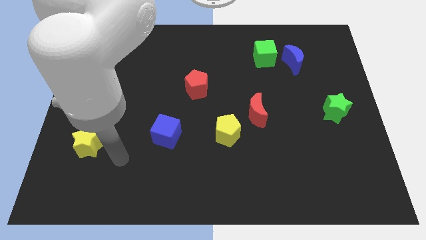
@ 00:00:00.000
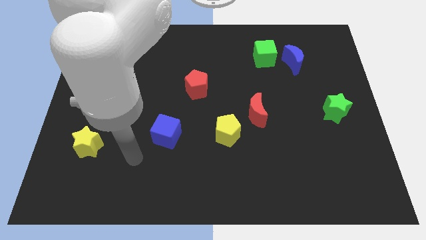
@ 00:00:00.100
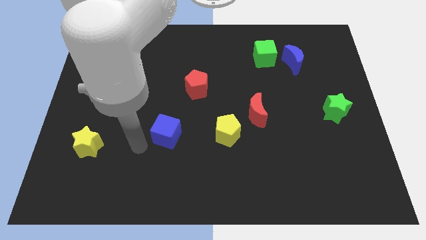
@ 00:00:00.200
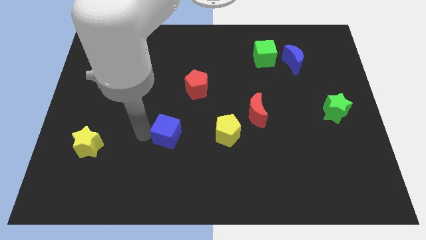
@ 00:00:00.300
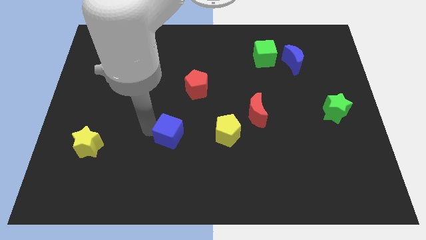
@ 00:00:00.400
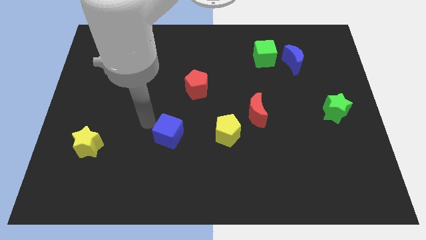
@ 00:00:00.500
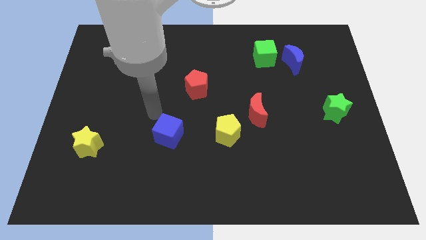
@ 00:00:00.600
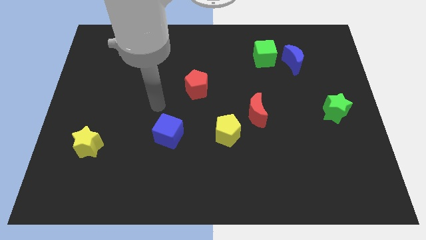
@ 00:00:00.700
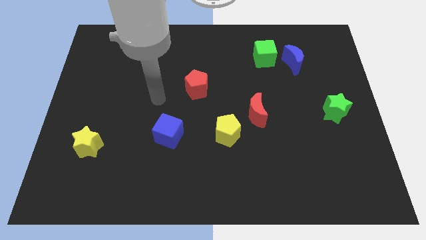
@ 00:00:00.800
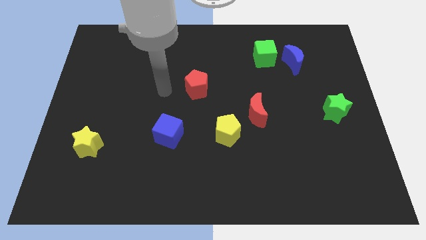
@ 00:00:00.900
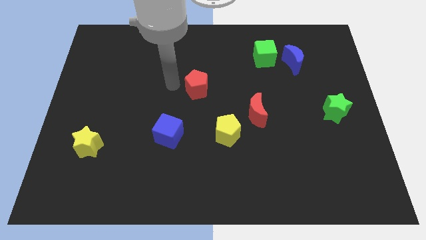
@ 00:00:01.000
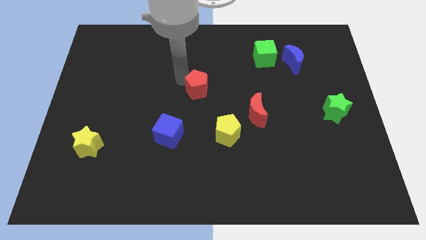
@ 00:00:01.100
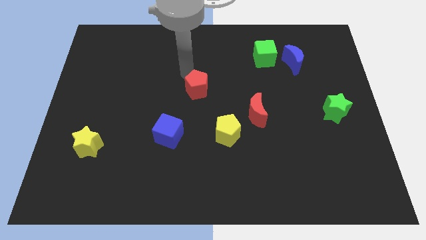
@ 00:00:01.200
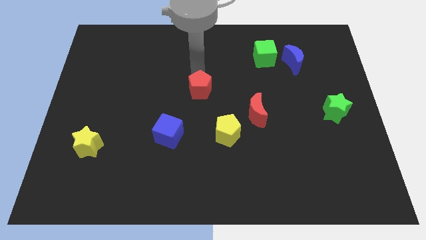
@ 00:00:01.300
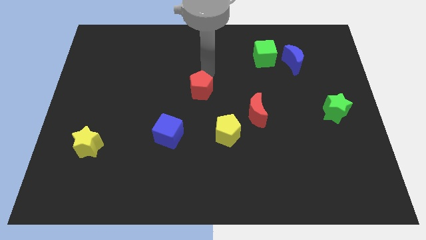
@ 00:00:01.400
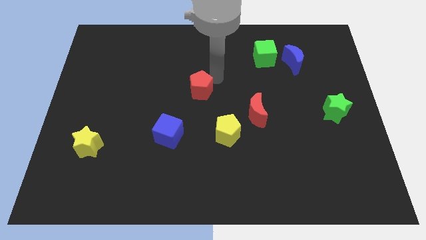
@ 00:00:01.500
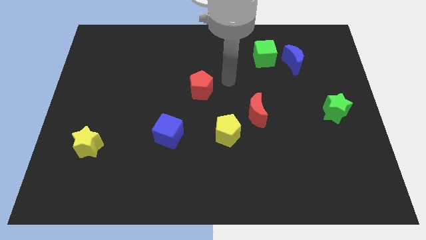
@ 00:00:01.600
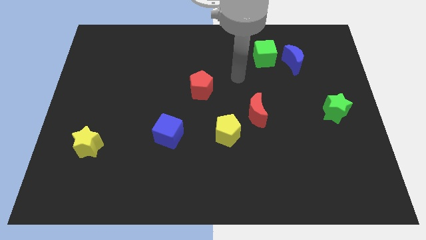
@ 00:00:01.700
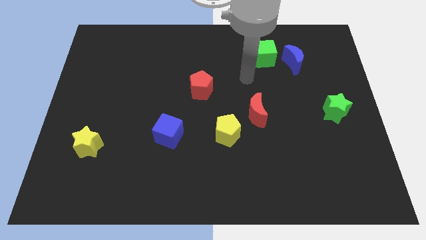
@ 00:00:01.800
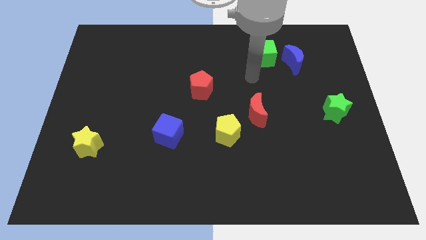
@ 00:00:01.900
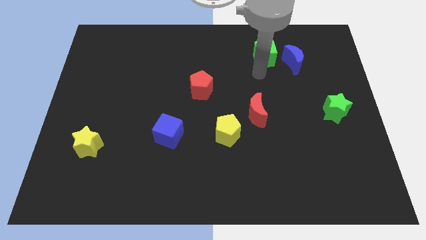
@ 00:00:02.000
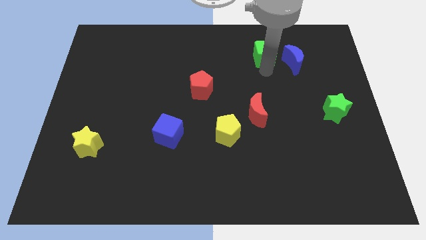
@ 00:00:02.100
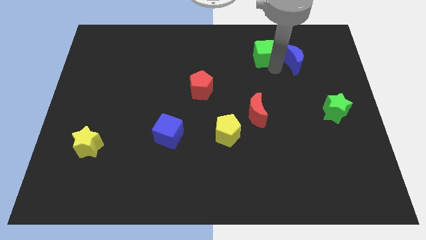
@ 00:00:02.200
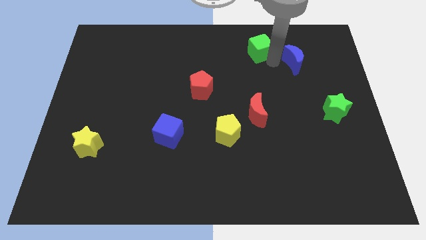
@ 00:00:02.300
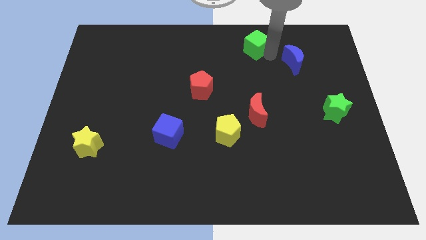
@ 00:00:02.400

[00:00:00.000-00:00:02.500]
separate the blue moon from the green cube

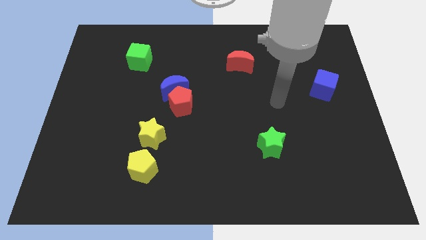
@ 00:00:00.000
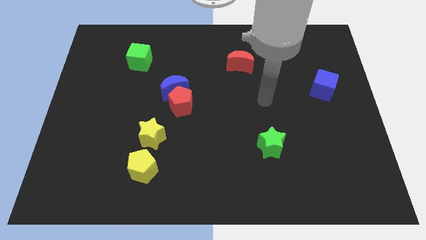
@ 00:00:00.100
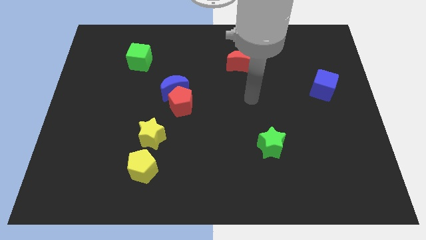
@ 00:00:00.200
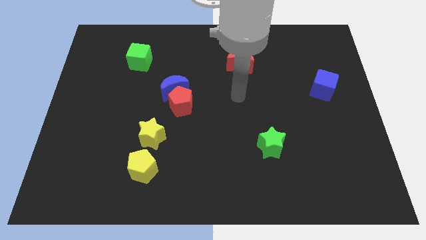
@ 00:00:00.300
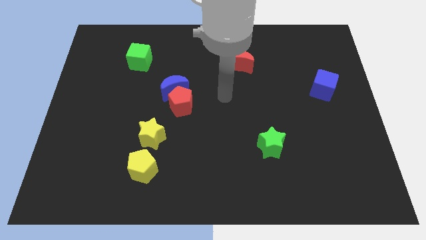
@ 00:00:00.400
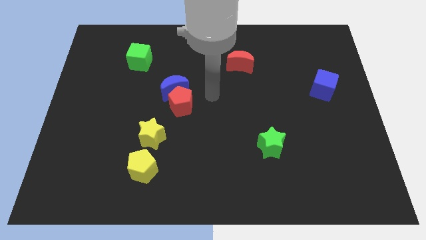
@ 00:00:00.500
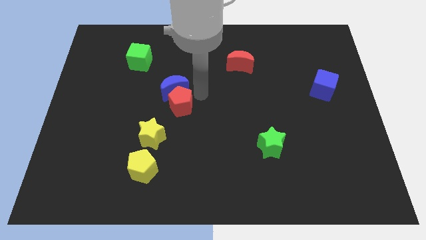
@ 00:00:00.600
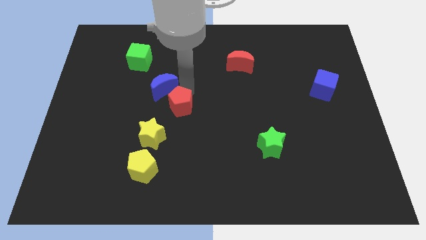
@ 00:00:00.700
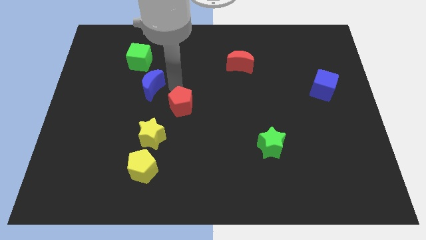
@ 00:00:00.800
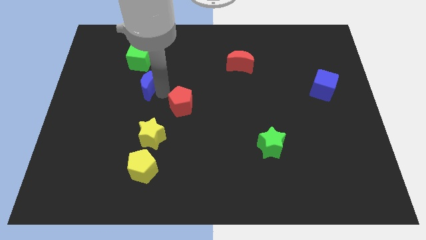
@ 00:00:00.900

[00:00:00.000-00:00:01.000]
move the red pentagon away from the blue moon

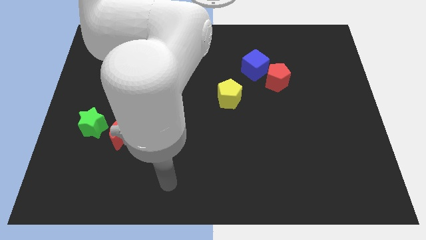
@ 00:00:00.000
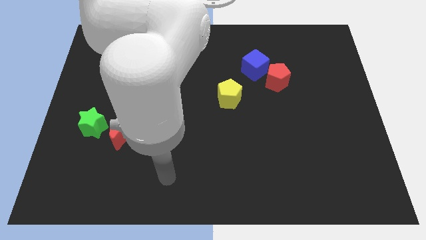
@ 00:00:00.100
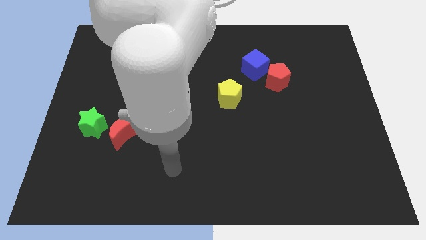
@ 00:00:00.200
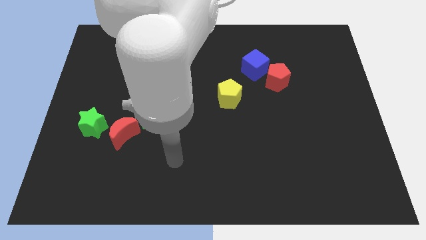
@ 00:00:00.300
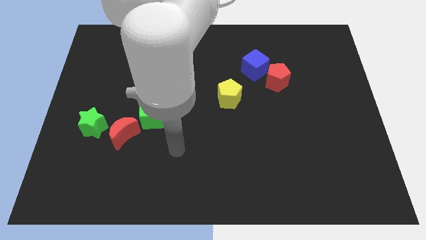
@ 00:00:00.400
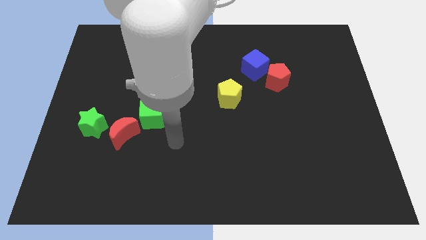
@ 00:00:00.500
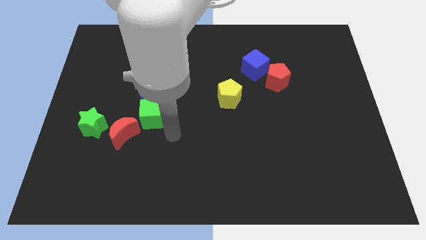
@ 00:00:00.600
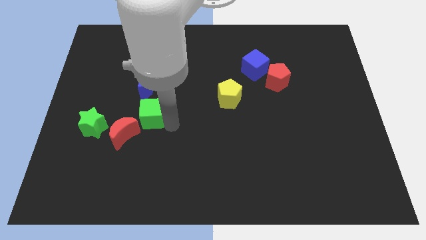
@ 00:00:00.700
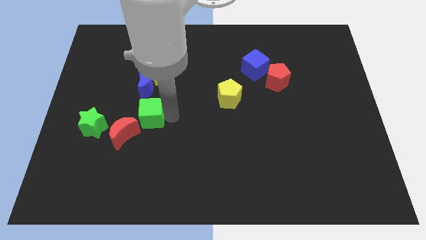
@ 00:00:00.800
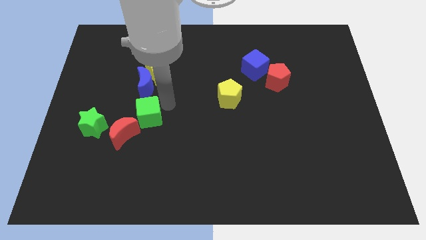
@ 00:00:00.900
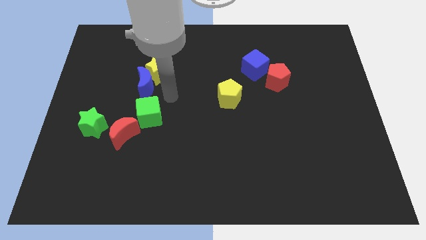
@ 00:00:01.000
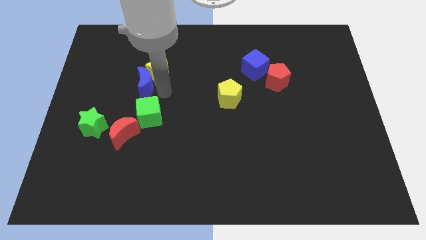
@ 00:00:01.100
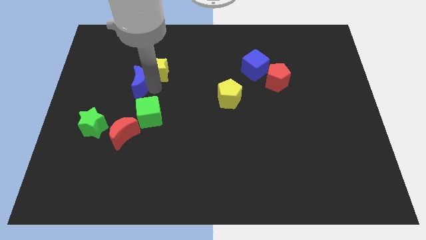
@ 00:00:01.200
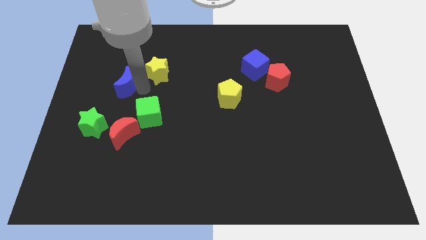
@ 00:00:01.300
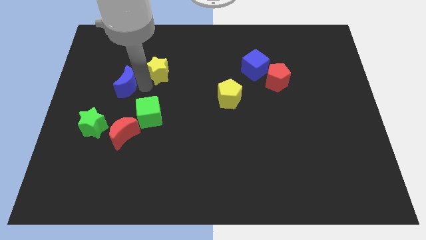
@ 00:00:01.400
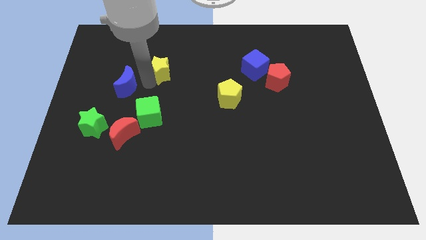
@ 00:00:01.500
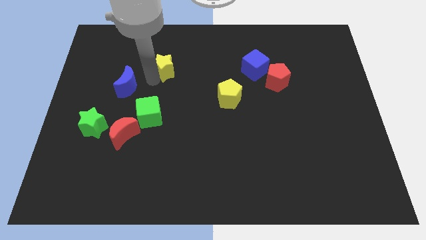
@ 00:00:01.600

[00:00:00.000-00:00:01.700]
separate the yellow star from the blue moon

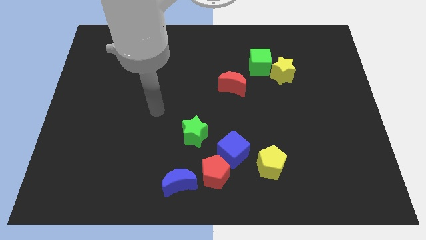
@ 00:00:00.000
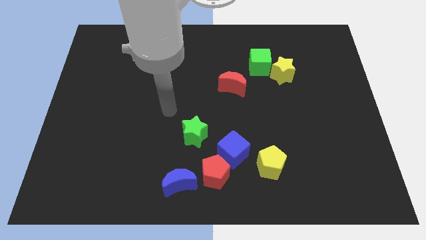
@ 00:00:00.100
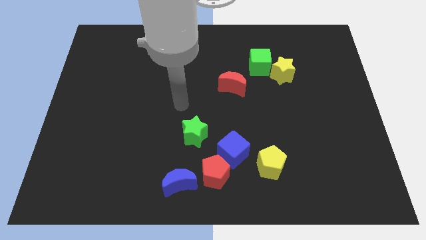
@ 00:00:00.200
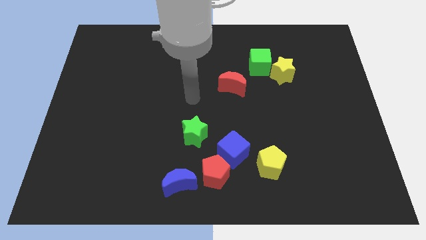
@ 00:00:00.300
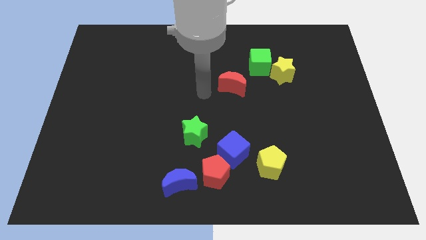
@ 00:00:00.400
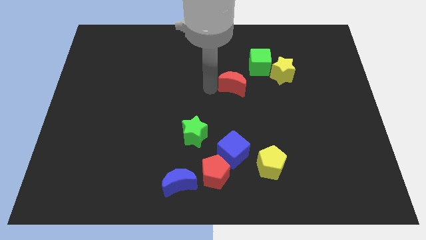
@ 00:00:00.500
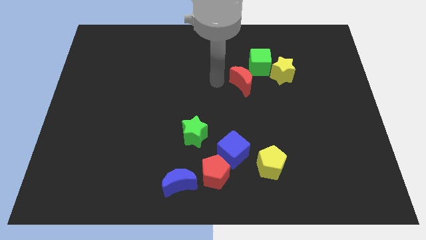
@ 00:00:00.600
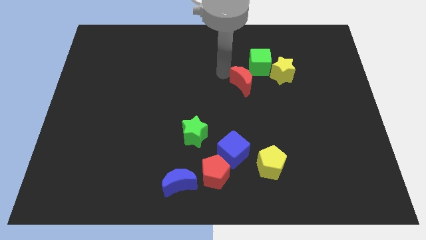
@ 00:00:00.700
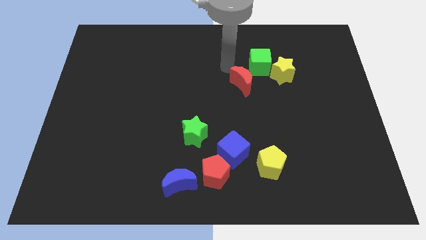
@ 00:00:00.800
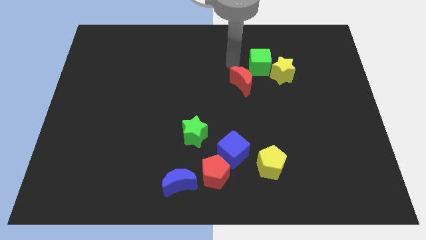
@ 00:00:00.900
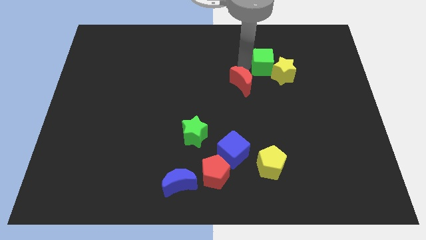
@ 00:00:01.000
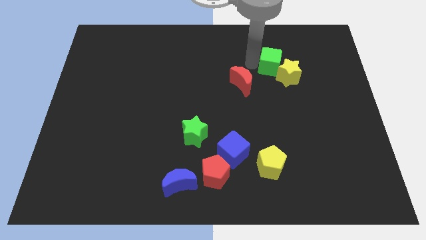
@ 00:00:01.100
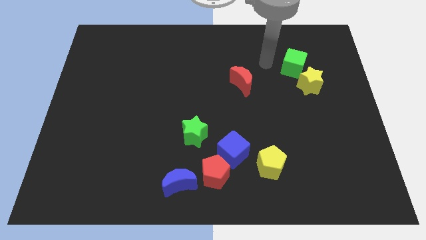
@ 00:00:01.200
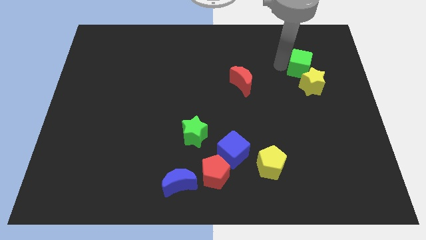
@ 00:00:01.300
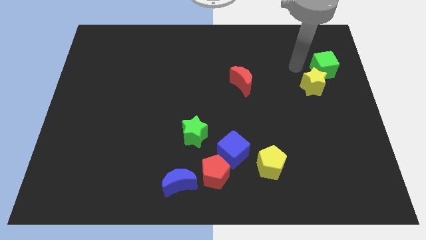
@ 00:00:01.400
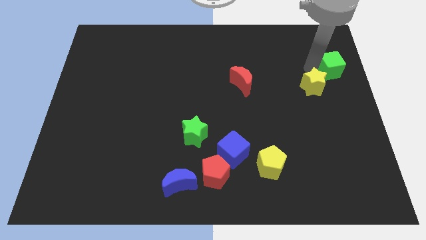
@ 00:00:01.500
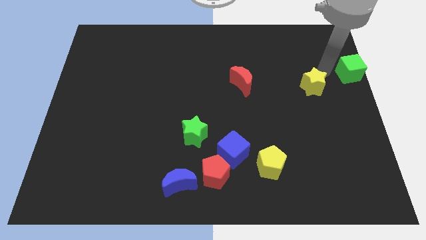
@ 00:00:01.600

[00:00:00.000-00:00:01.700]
move the yellow star away from the green cube

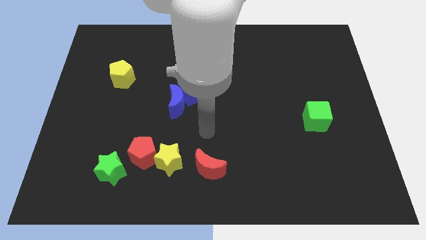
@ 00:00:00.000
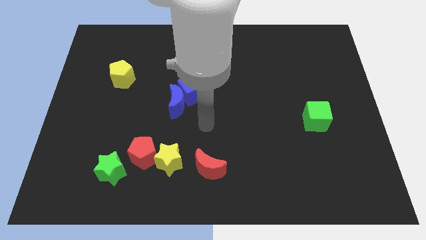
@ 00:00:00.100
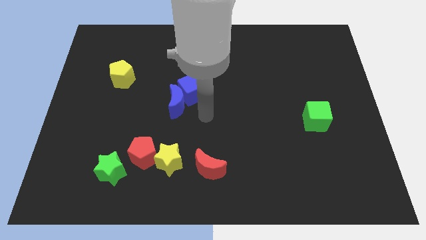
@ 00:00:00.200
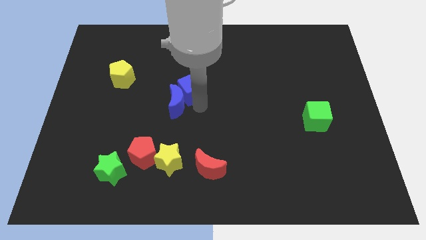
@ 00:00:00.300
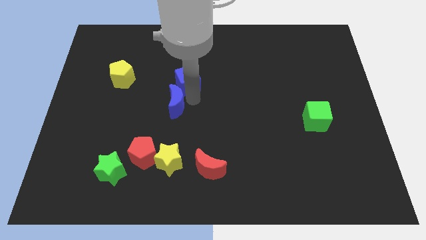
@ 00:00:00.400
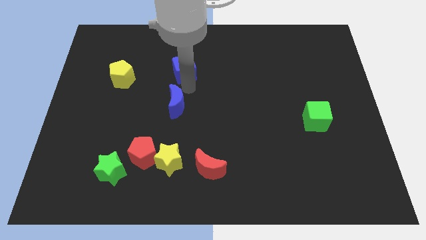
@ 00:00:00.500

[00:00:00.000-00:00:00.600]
separate the blue moon from the blue cube

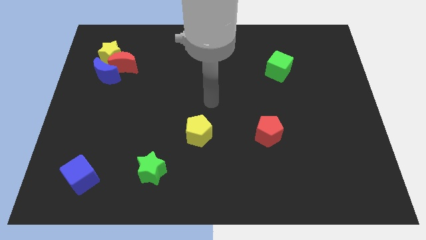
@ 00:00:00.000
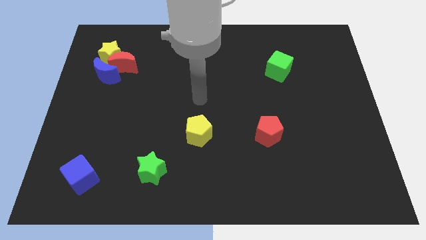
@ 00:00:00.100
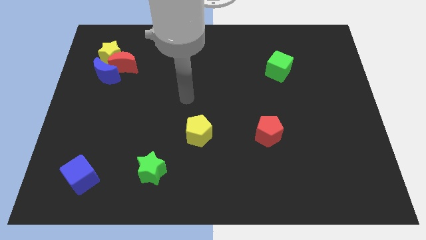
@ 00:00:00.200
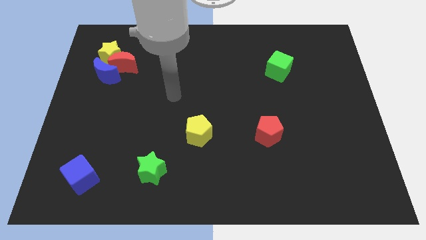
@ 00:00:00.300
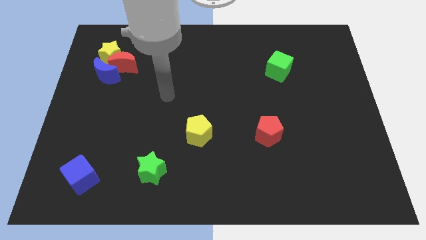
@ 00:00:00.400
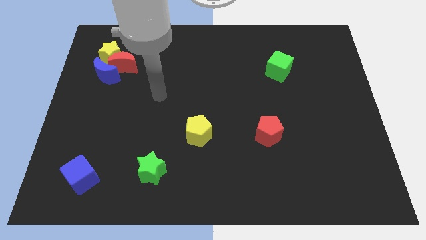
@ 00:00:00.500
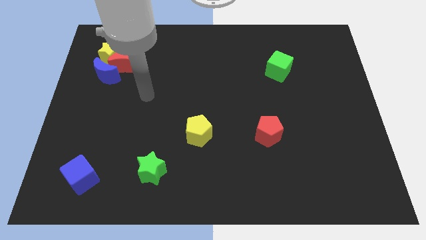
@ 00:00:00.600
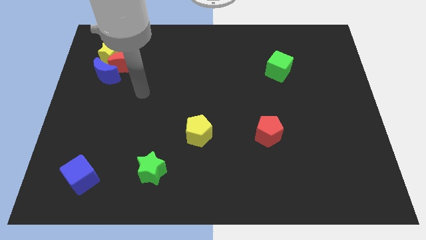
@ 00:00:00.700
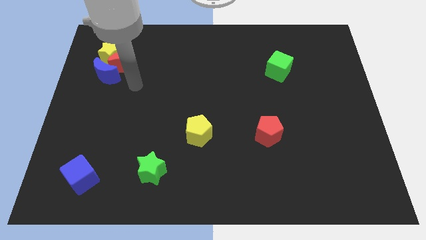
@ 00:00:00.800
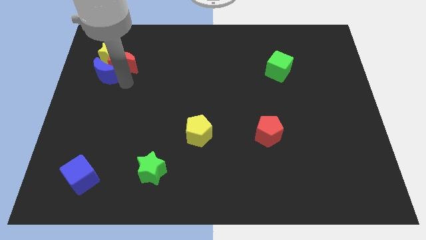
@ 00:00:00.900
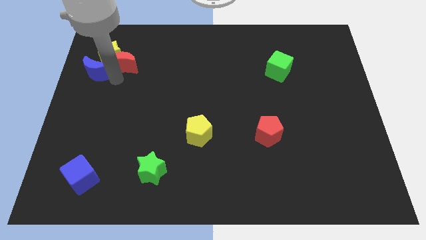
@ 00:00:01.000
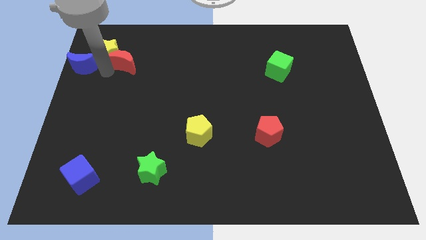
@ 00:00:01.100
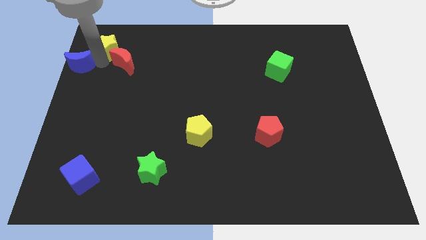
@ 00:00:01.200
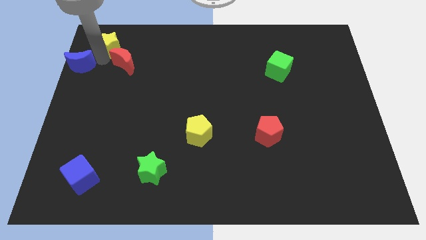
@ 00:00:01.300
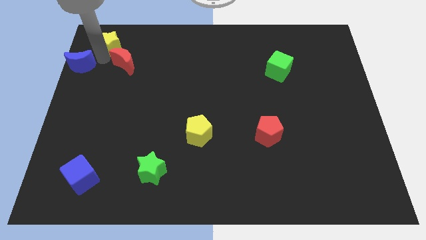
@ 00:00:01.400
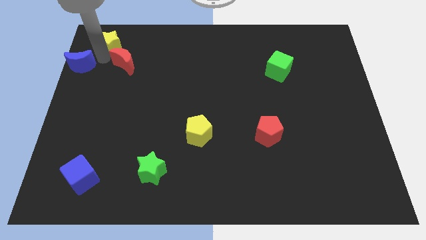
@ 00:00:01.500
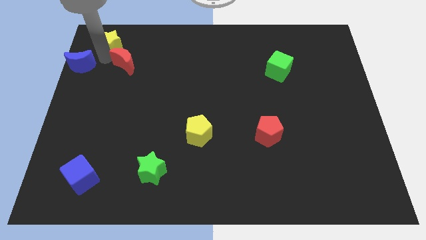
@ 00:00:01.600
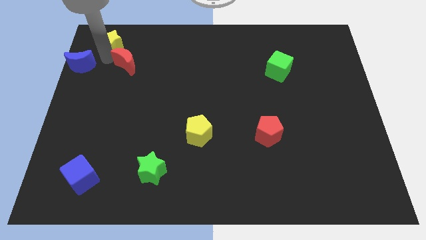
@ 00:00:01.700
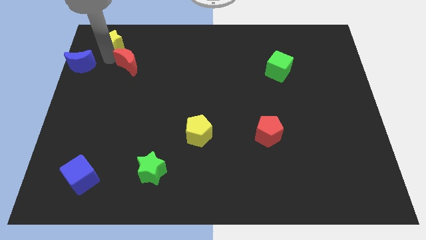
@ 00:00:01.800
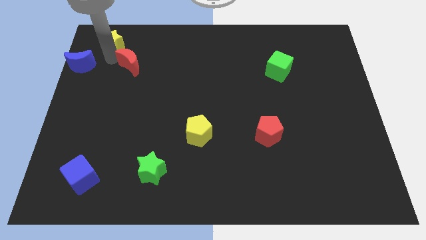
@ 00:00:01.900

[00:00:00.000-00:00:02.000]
separate the red moon from the yellow star and blue moon
